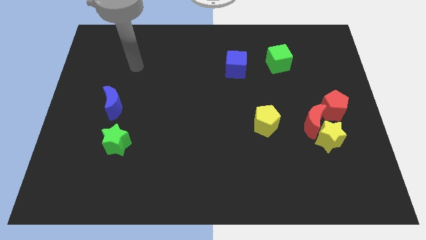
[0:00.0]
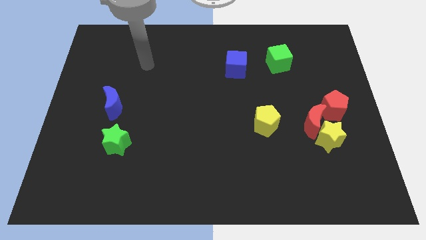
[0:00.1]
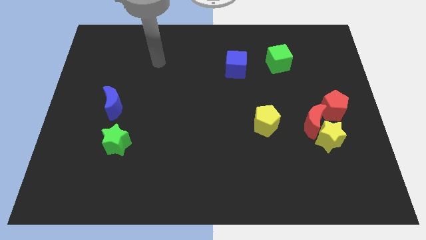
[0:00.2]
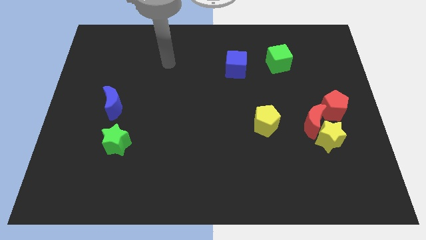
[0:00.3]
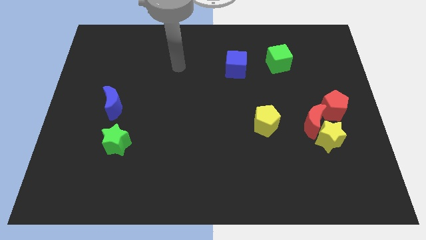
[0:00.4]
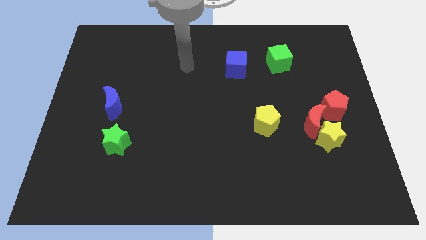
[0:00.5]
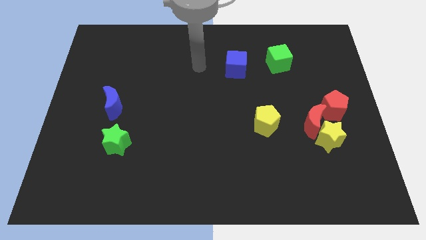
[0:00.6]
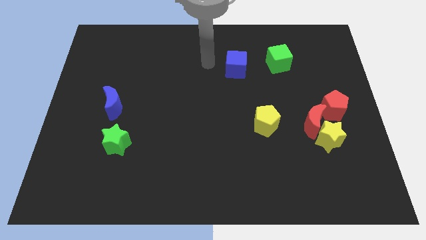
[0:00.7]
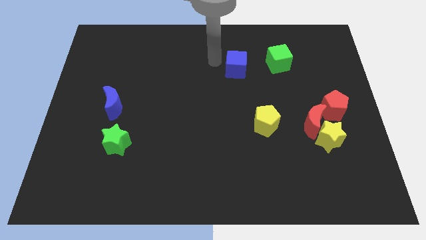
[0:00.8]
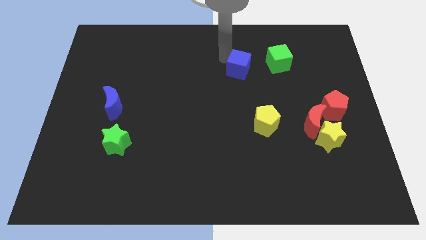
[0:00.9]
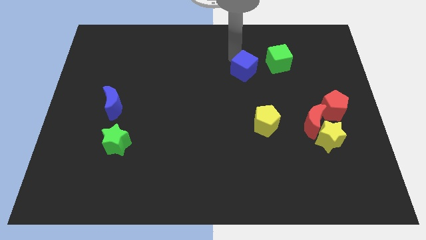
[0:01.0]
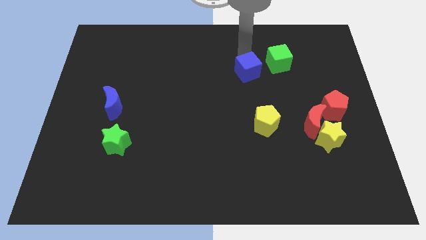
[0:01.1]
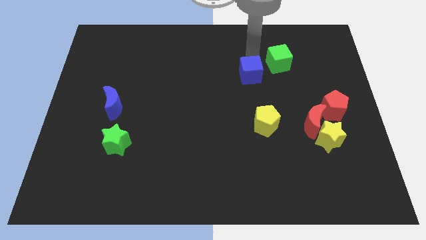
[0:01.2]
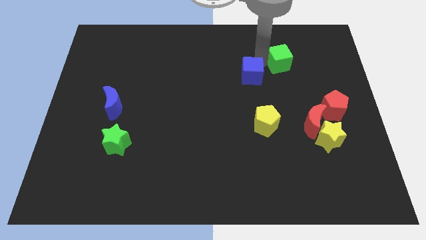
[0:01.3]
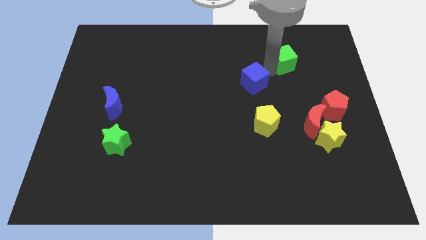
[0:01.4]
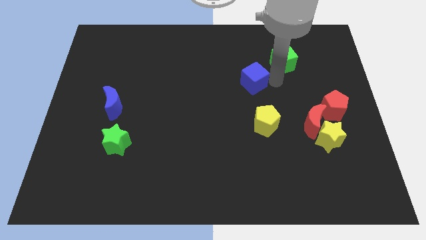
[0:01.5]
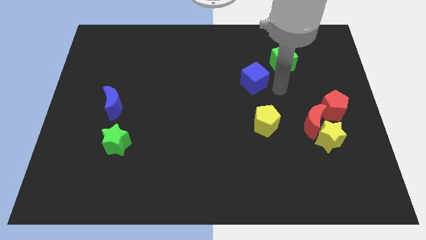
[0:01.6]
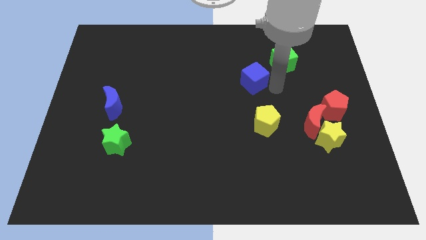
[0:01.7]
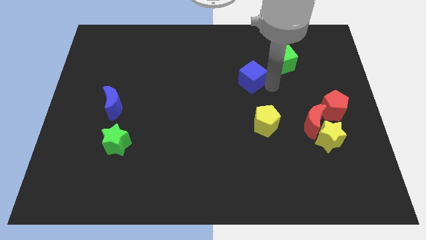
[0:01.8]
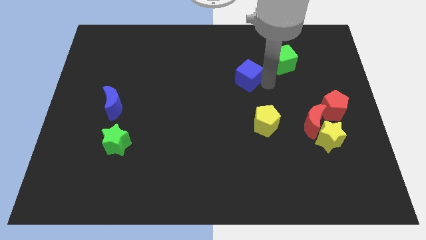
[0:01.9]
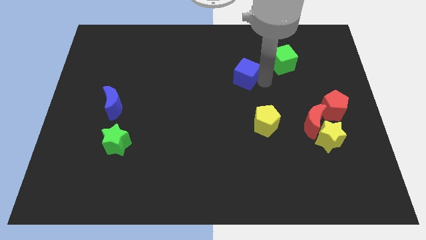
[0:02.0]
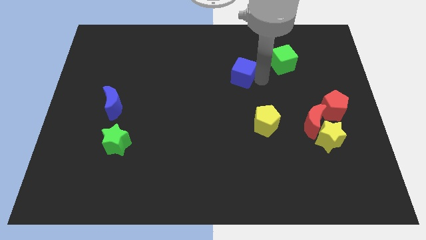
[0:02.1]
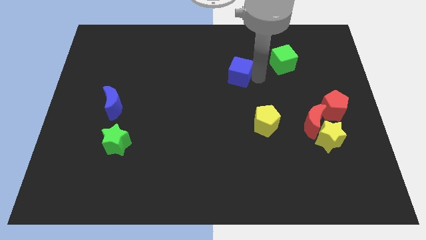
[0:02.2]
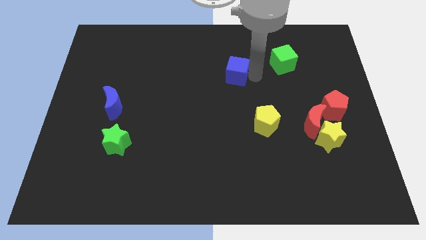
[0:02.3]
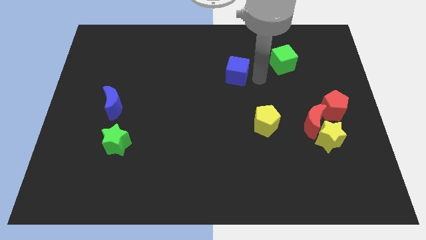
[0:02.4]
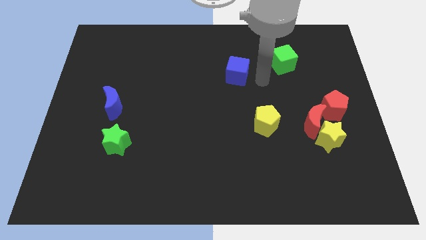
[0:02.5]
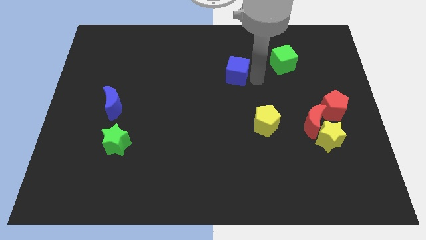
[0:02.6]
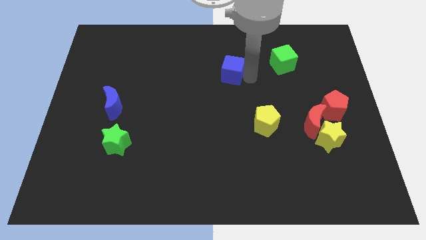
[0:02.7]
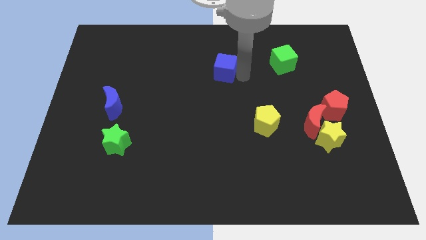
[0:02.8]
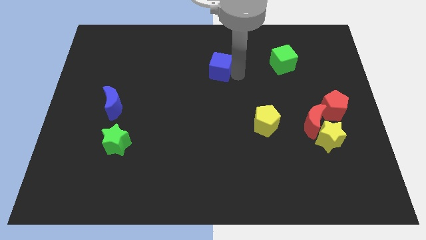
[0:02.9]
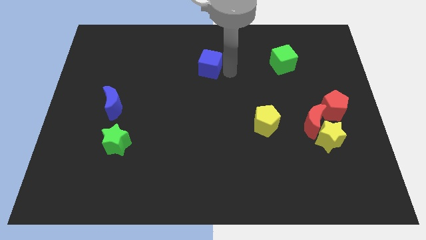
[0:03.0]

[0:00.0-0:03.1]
slide the blue cube to the left a little bit

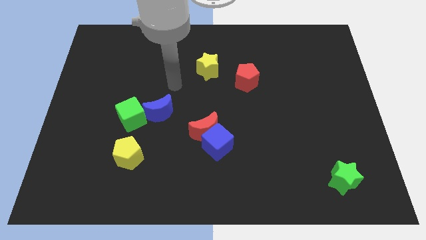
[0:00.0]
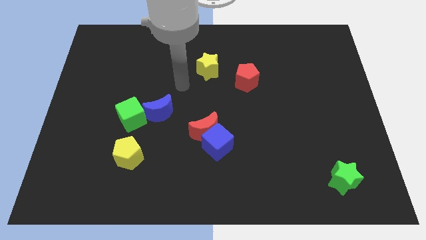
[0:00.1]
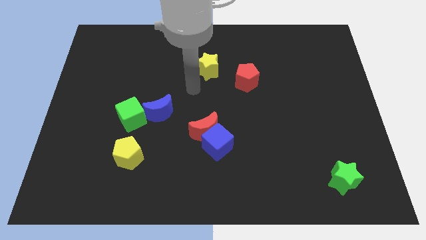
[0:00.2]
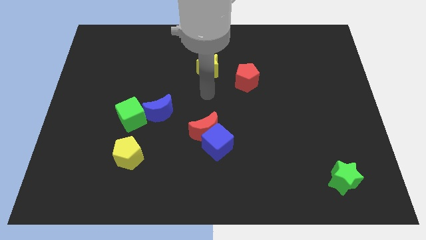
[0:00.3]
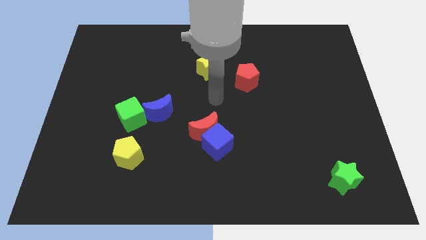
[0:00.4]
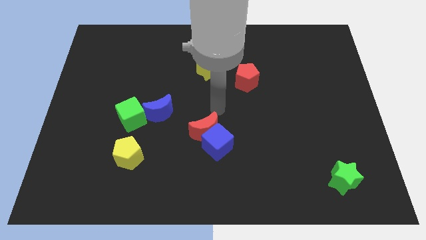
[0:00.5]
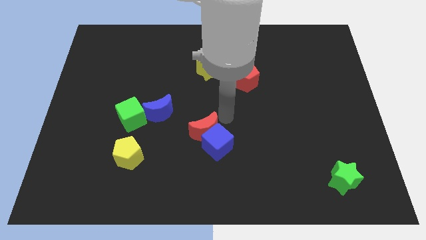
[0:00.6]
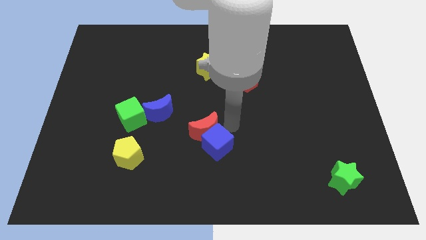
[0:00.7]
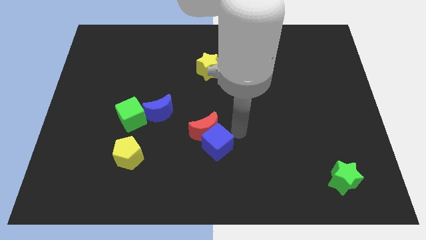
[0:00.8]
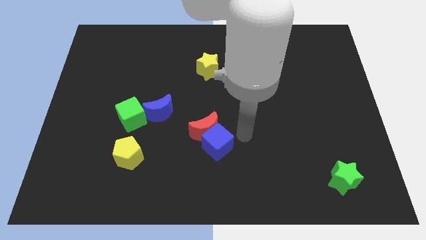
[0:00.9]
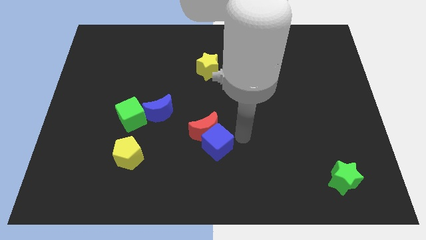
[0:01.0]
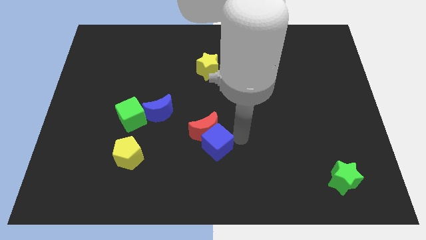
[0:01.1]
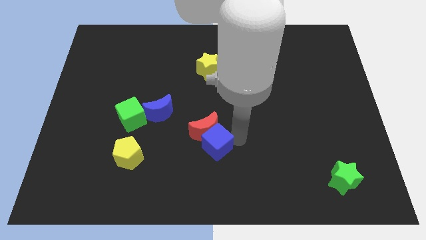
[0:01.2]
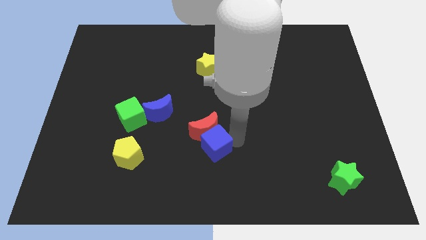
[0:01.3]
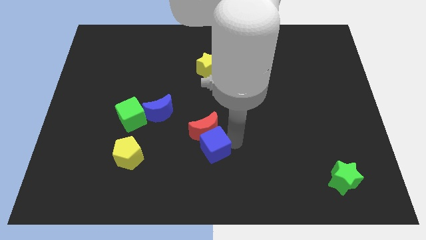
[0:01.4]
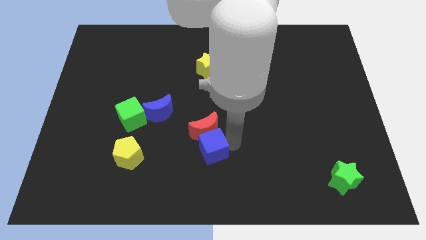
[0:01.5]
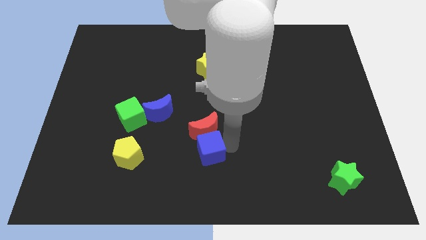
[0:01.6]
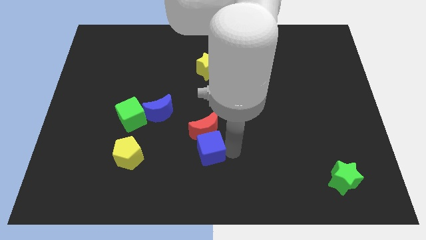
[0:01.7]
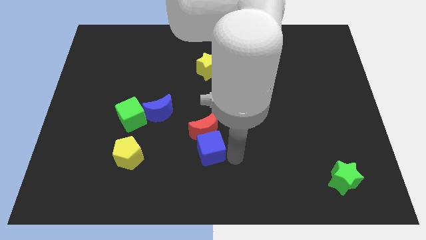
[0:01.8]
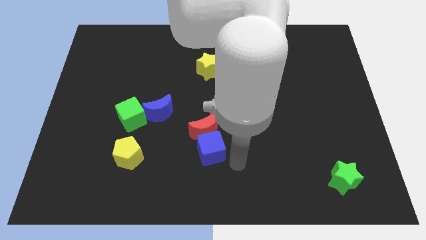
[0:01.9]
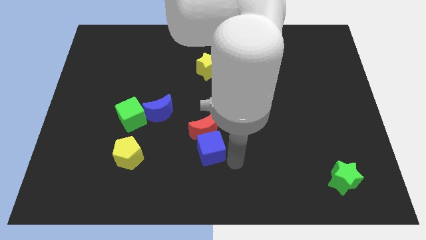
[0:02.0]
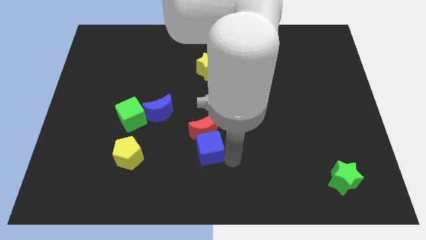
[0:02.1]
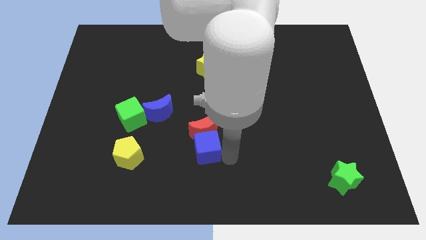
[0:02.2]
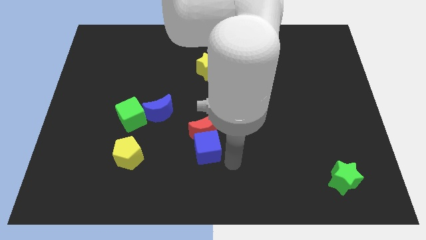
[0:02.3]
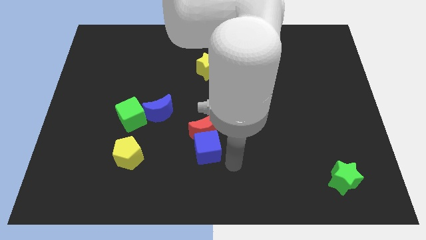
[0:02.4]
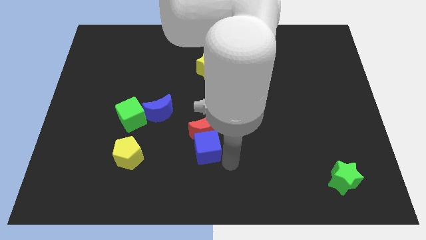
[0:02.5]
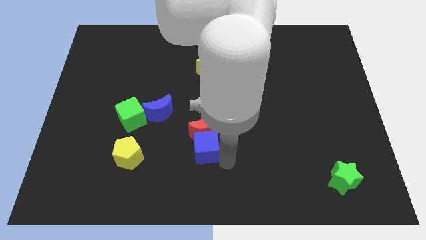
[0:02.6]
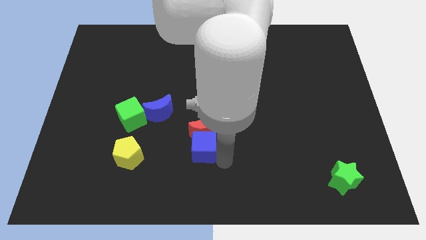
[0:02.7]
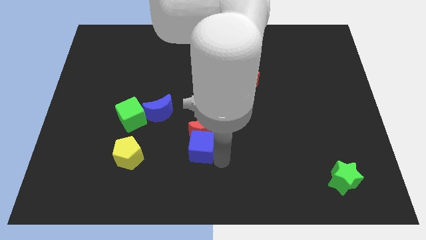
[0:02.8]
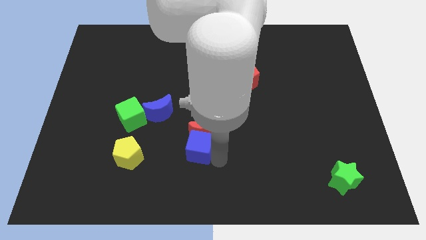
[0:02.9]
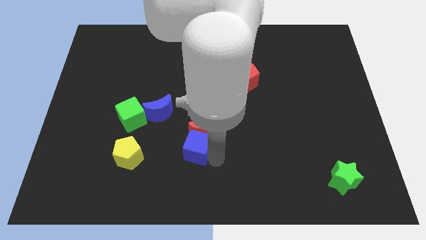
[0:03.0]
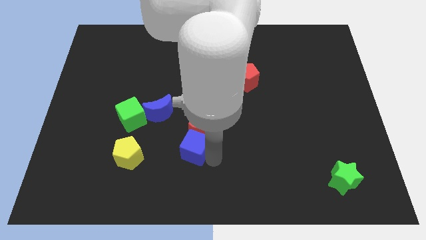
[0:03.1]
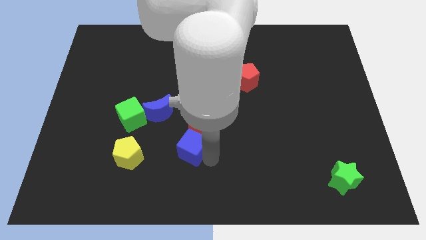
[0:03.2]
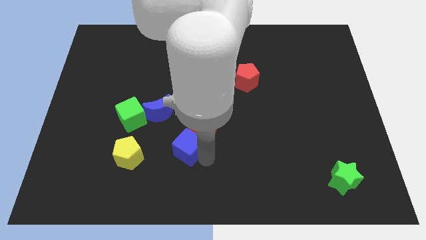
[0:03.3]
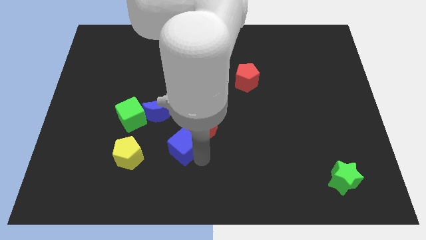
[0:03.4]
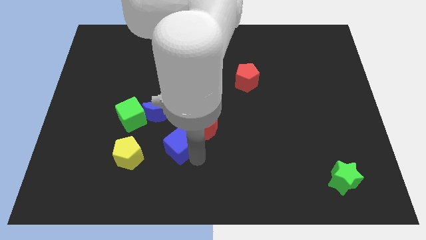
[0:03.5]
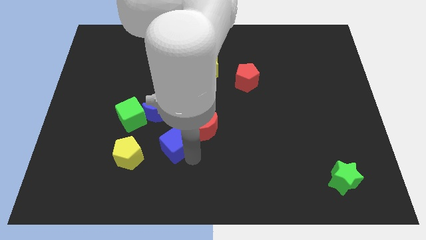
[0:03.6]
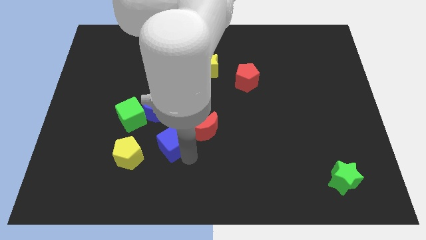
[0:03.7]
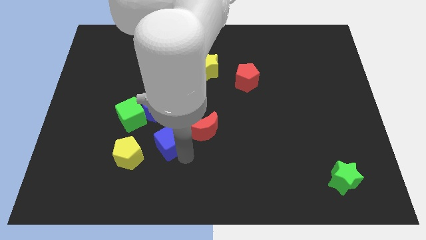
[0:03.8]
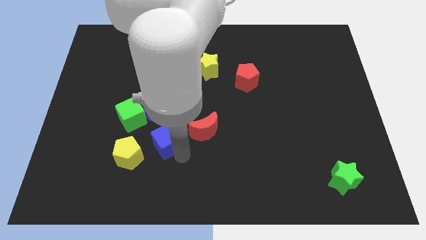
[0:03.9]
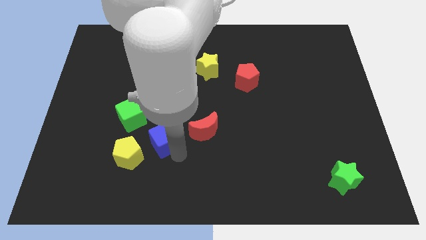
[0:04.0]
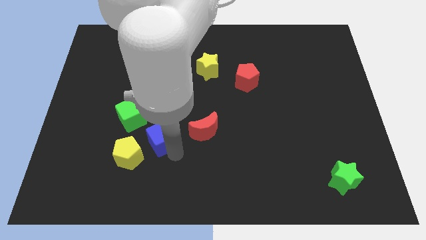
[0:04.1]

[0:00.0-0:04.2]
move the blue cube upwards and then to the left a bit

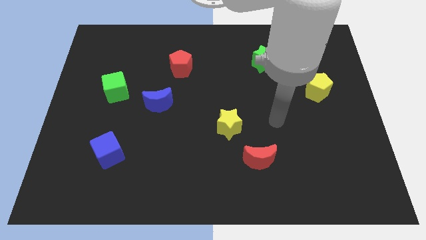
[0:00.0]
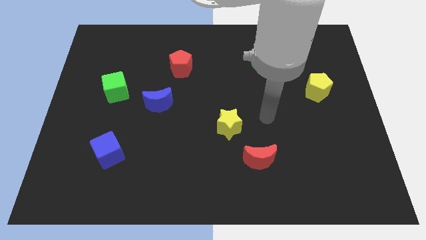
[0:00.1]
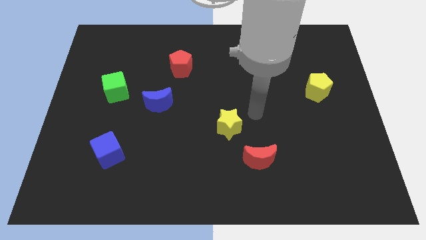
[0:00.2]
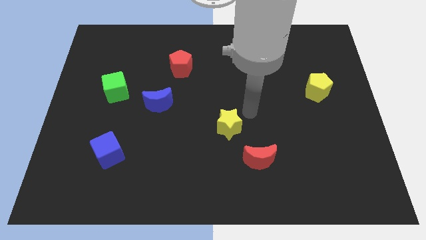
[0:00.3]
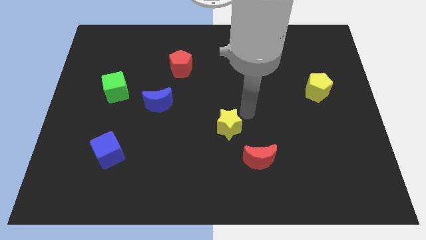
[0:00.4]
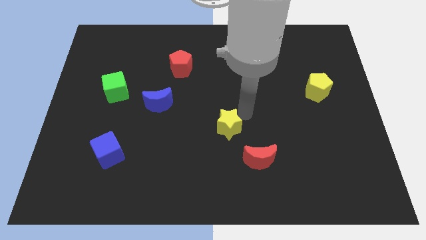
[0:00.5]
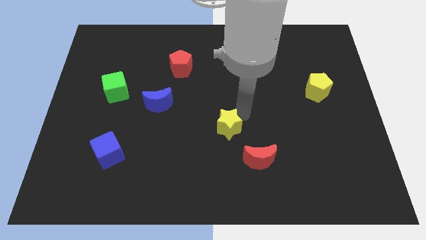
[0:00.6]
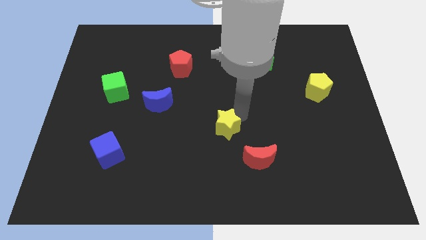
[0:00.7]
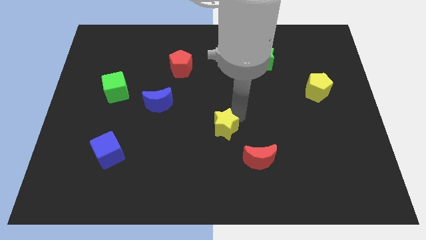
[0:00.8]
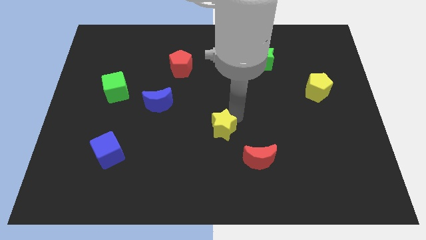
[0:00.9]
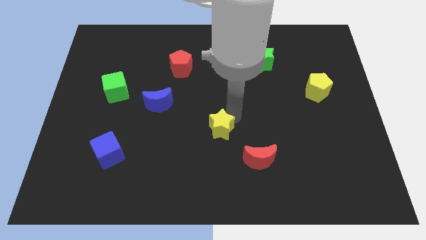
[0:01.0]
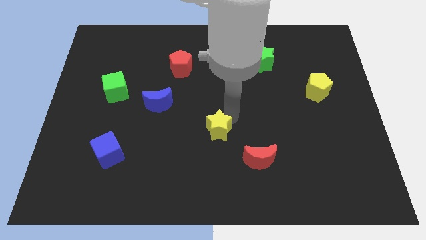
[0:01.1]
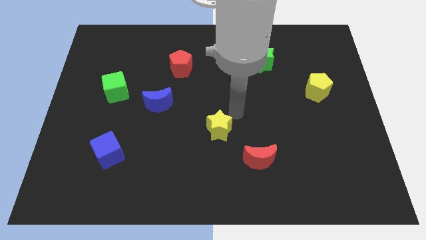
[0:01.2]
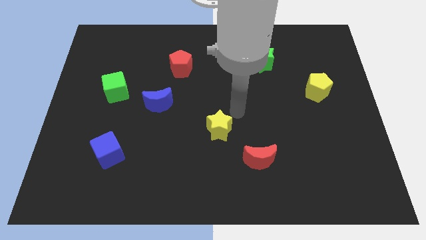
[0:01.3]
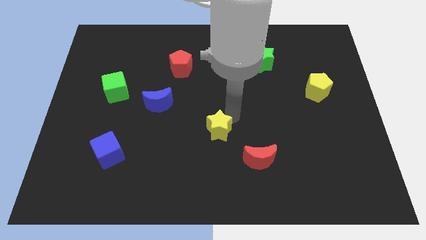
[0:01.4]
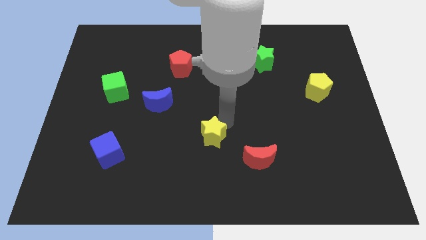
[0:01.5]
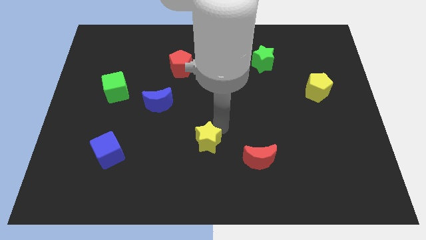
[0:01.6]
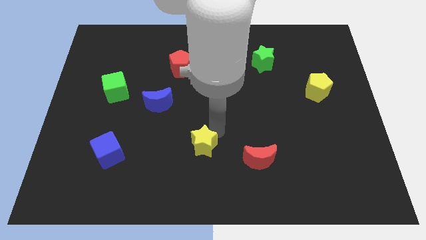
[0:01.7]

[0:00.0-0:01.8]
move the yellow star a little down and to the left
